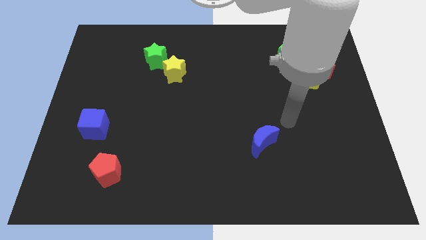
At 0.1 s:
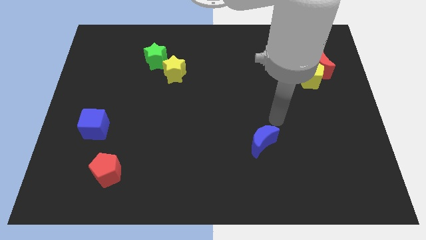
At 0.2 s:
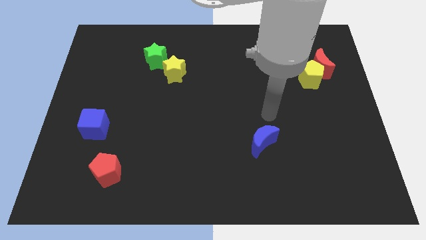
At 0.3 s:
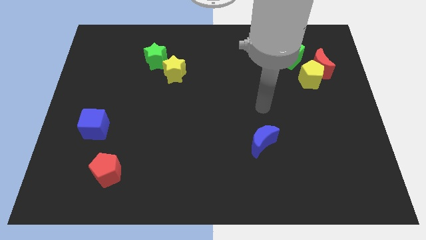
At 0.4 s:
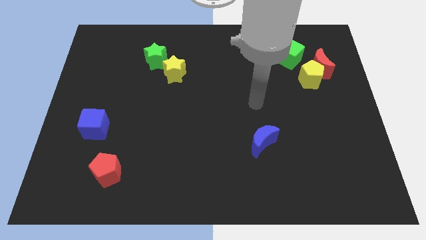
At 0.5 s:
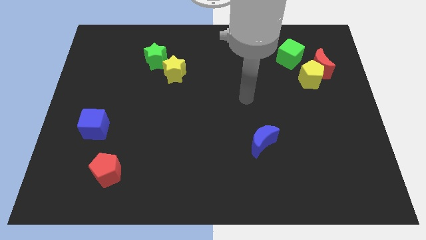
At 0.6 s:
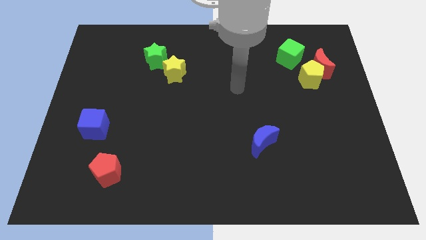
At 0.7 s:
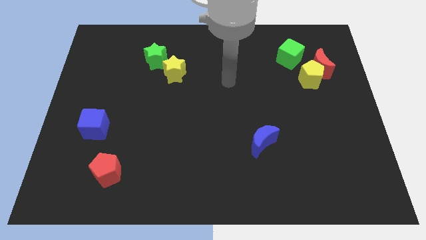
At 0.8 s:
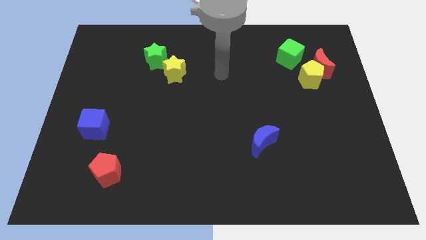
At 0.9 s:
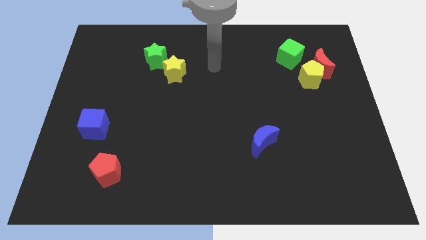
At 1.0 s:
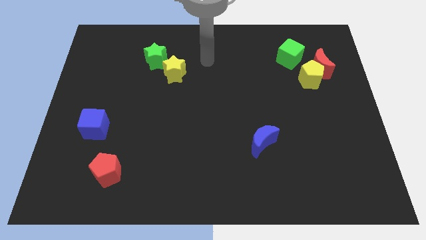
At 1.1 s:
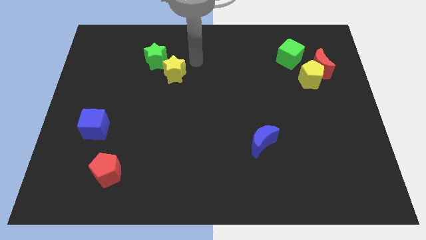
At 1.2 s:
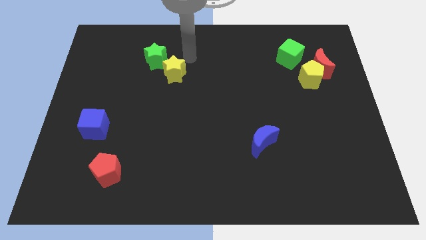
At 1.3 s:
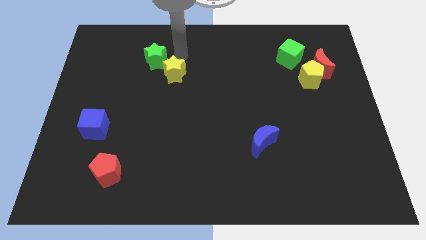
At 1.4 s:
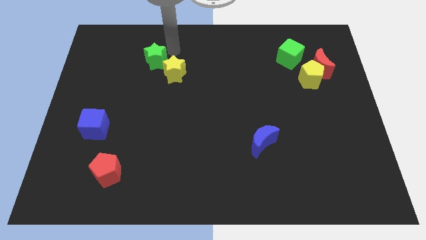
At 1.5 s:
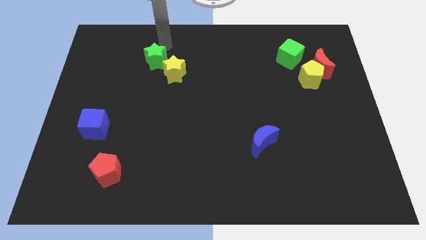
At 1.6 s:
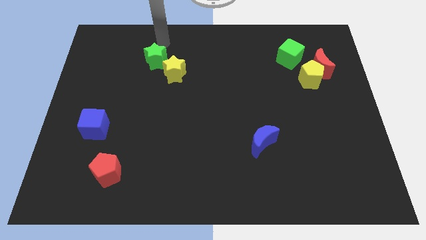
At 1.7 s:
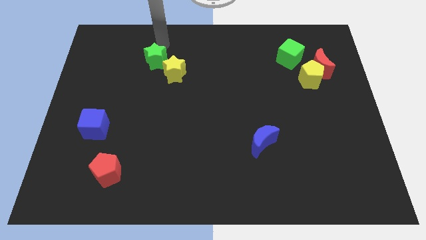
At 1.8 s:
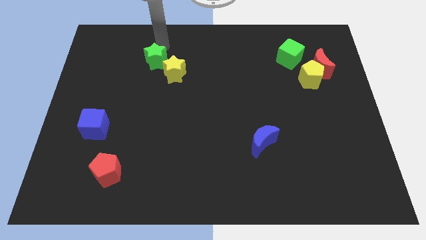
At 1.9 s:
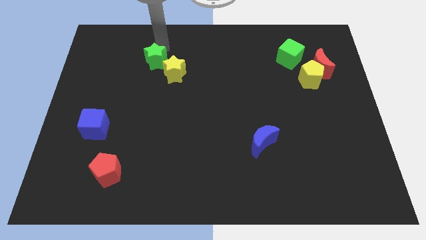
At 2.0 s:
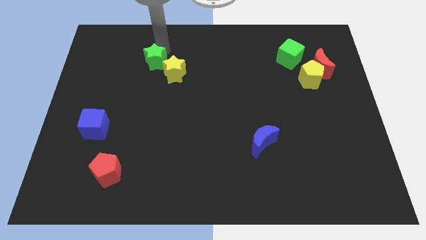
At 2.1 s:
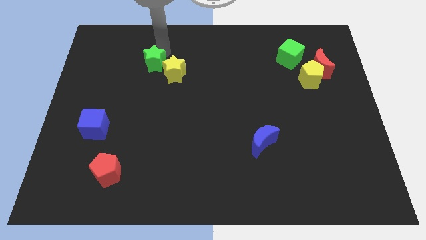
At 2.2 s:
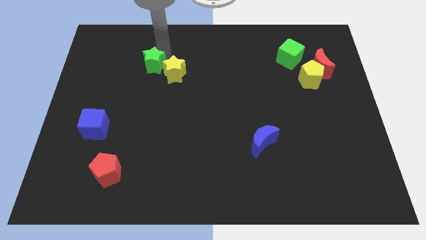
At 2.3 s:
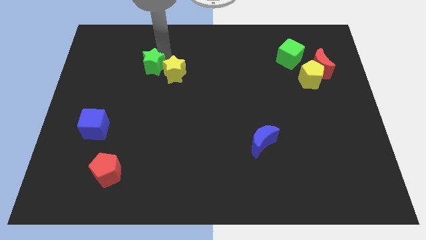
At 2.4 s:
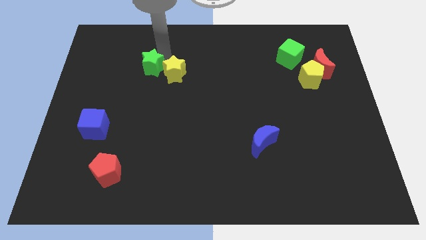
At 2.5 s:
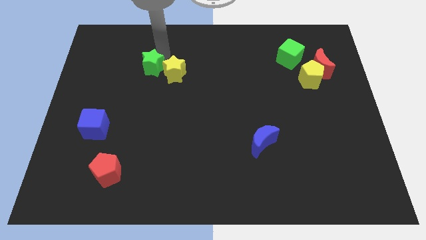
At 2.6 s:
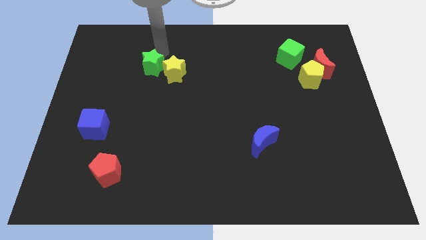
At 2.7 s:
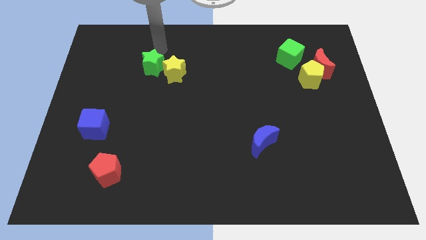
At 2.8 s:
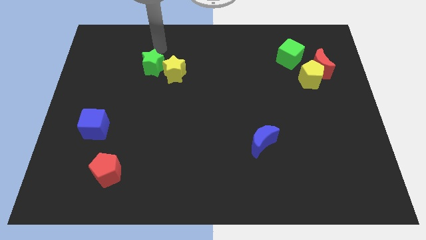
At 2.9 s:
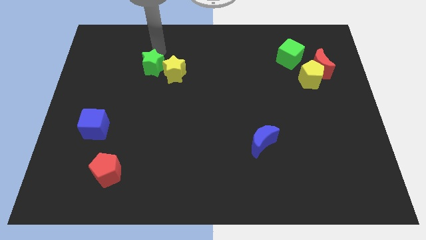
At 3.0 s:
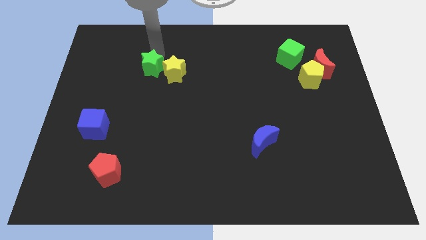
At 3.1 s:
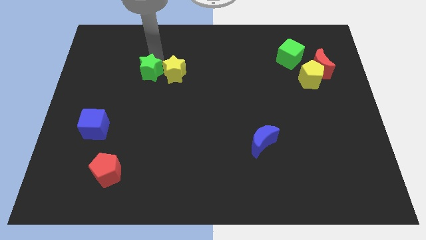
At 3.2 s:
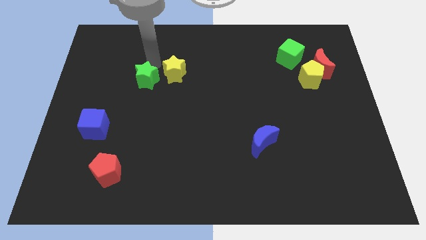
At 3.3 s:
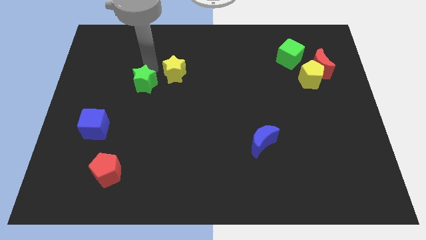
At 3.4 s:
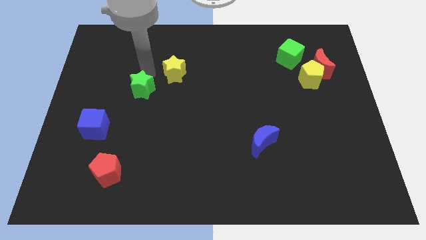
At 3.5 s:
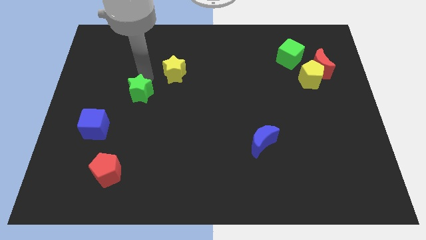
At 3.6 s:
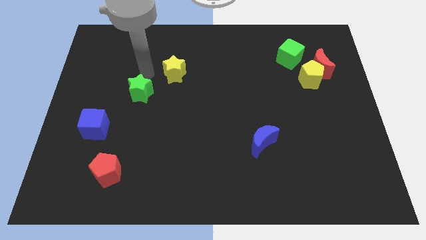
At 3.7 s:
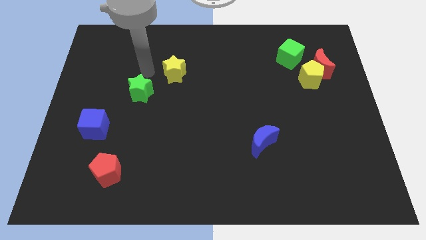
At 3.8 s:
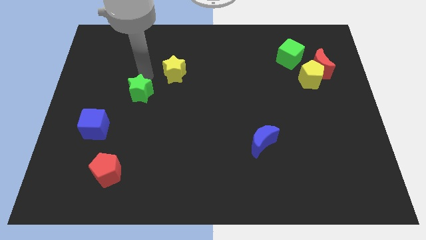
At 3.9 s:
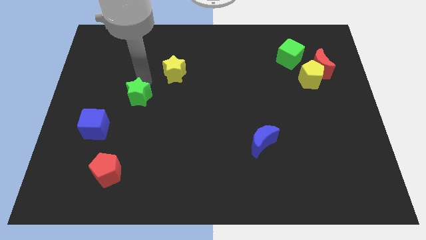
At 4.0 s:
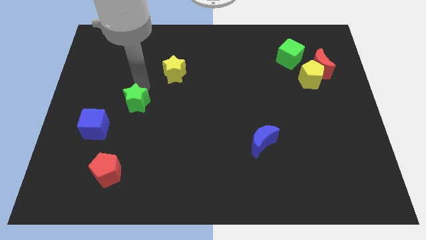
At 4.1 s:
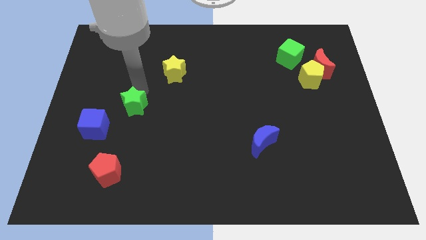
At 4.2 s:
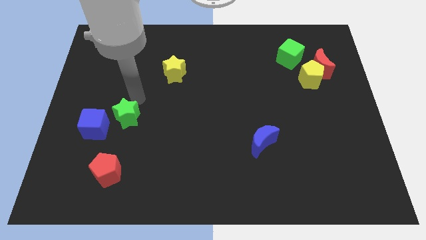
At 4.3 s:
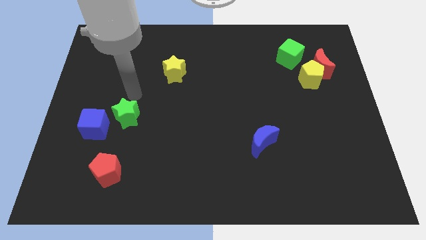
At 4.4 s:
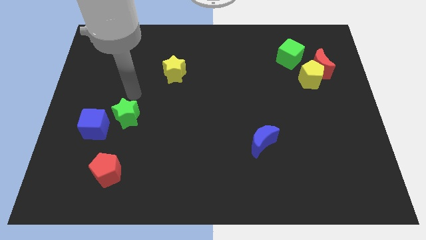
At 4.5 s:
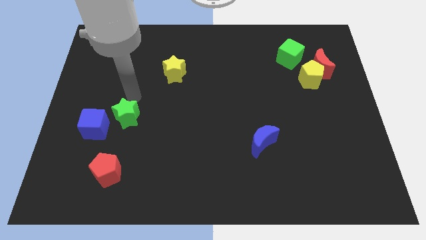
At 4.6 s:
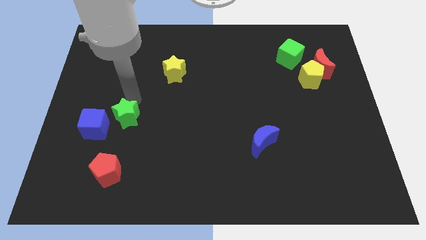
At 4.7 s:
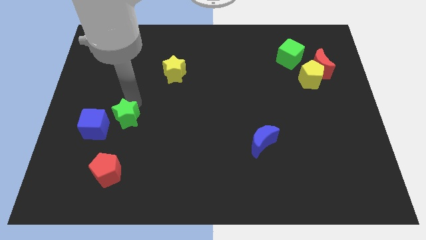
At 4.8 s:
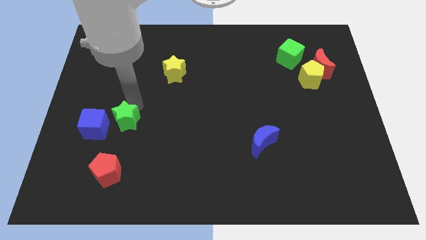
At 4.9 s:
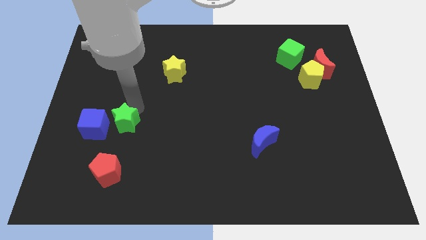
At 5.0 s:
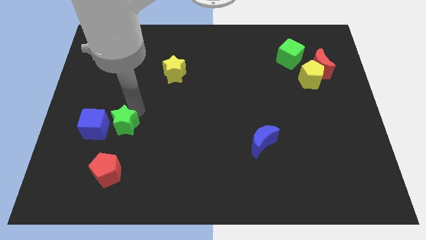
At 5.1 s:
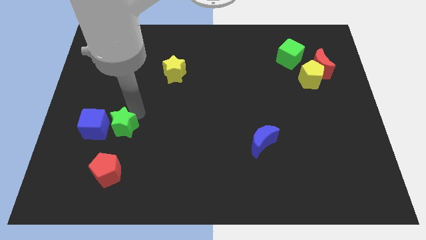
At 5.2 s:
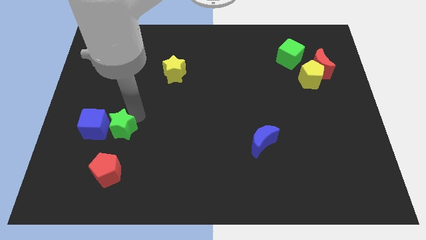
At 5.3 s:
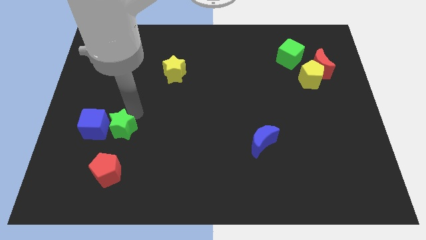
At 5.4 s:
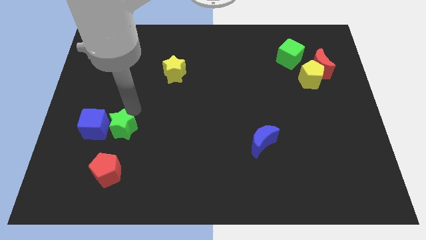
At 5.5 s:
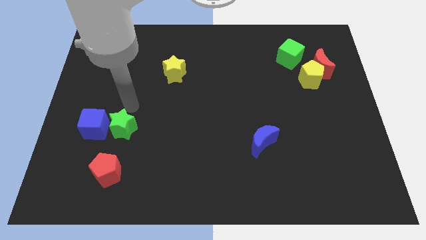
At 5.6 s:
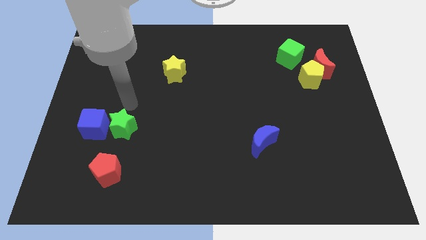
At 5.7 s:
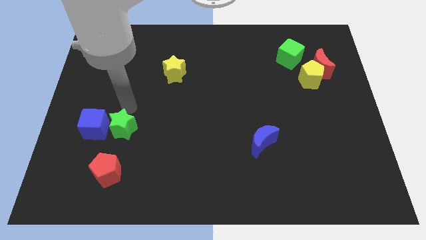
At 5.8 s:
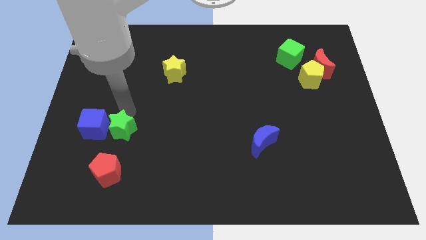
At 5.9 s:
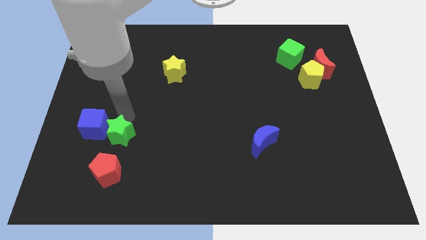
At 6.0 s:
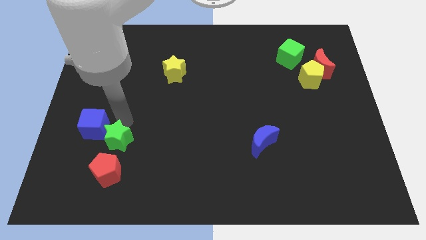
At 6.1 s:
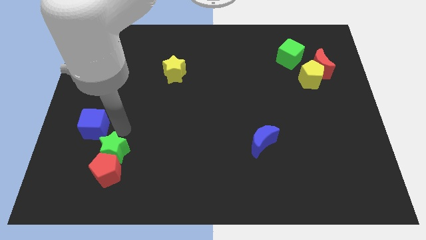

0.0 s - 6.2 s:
move the green star to the red pentagon
